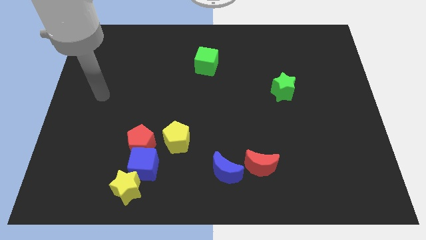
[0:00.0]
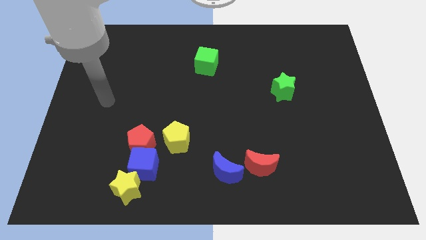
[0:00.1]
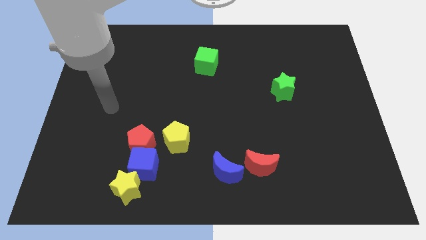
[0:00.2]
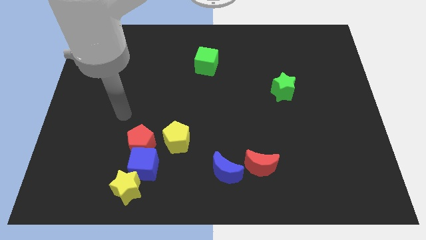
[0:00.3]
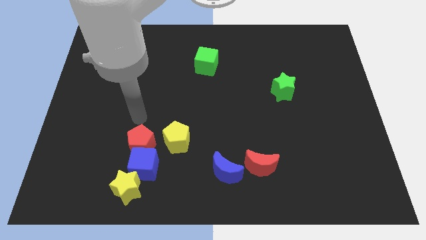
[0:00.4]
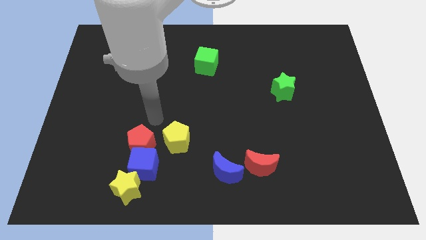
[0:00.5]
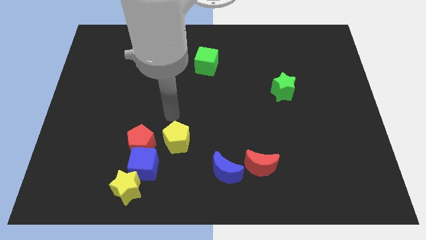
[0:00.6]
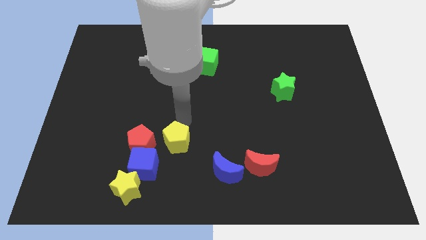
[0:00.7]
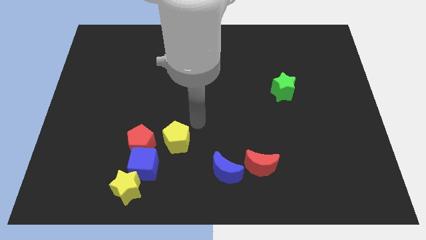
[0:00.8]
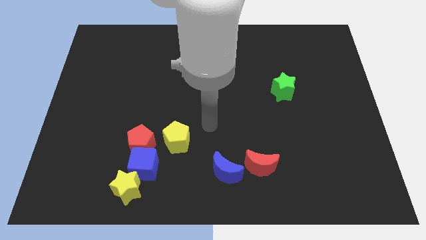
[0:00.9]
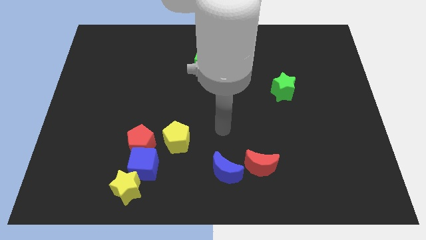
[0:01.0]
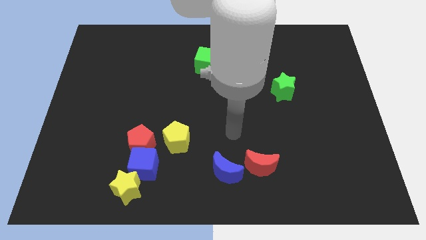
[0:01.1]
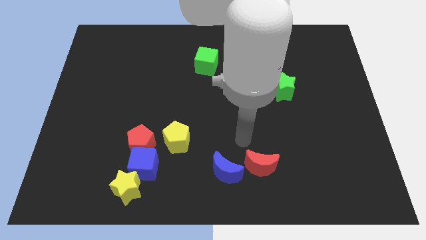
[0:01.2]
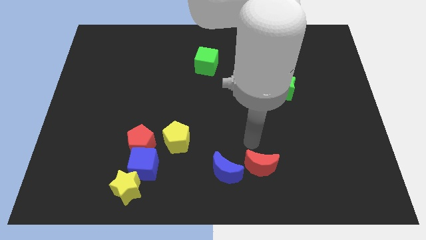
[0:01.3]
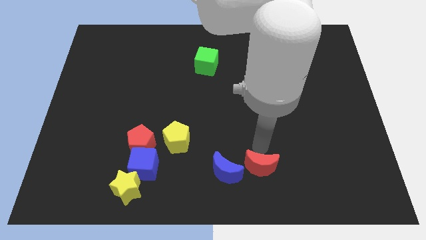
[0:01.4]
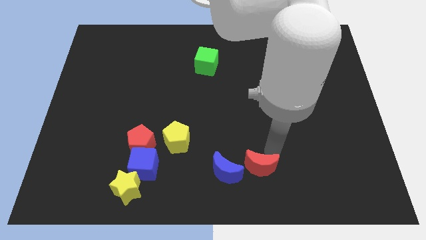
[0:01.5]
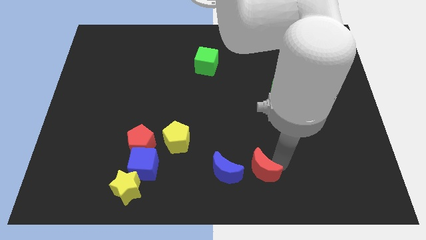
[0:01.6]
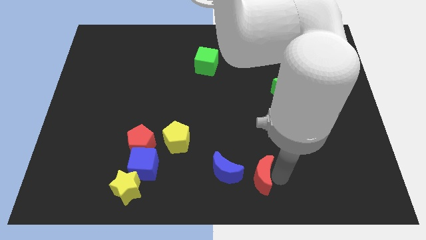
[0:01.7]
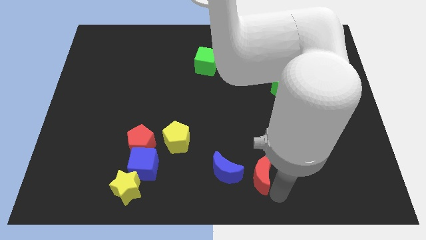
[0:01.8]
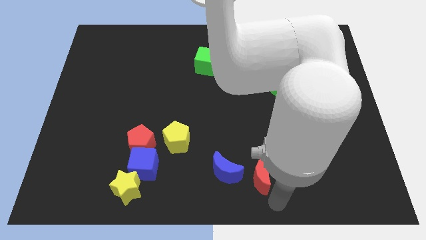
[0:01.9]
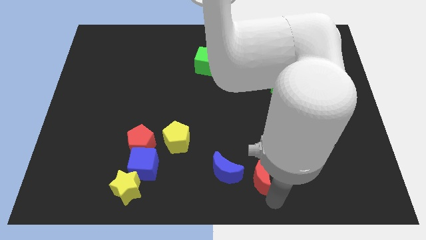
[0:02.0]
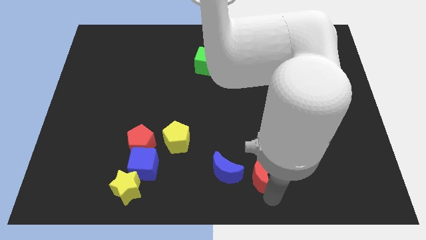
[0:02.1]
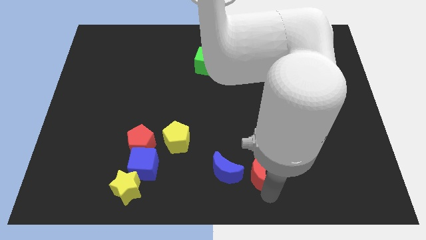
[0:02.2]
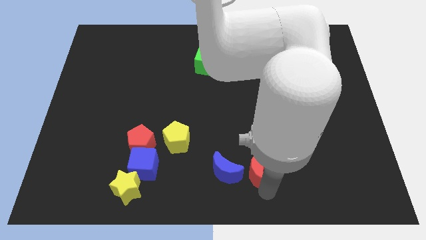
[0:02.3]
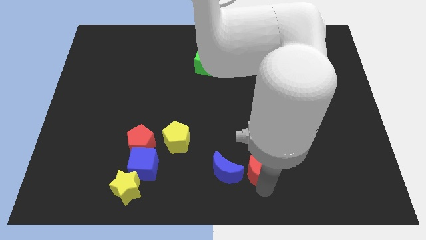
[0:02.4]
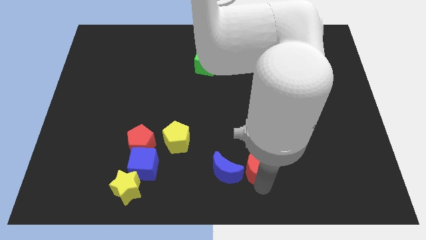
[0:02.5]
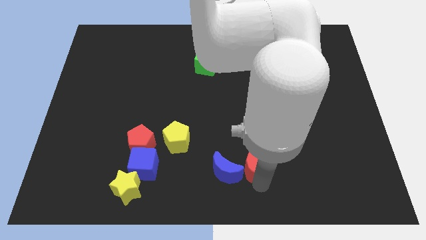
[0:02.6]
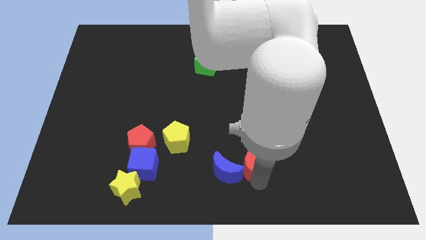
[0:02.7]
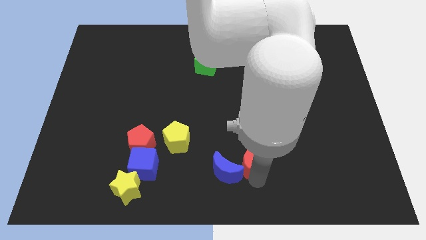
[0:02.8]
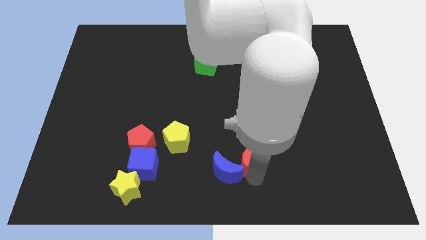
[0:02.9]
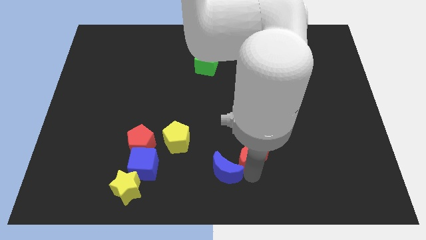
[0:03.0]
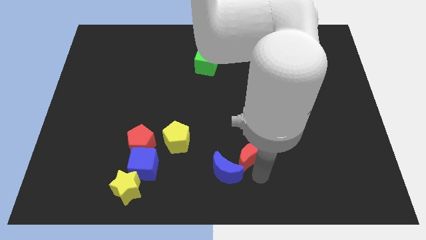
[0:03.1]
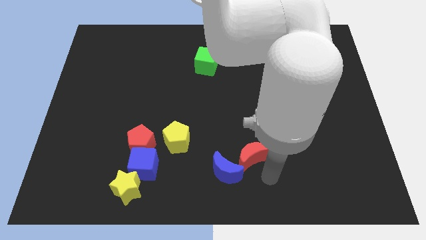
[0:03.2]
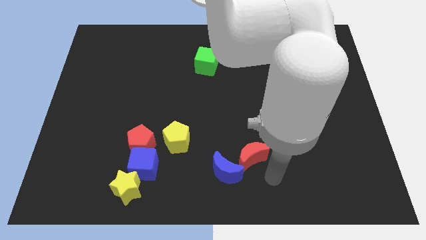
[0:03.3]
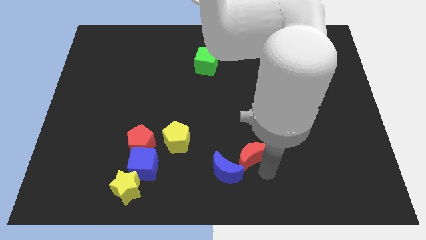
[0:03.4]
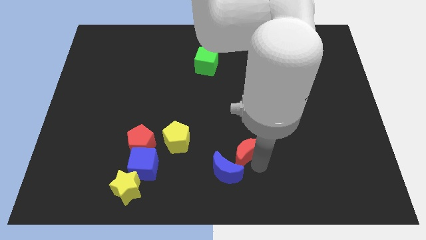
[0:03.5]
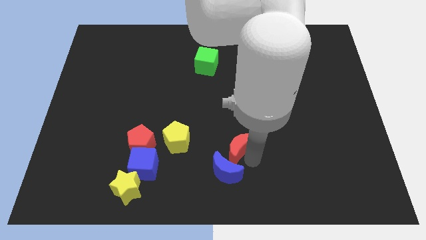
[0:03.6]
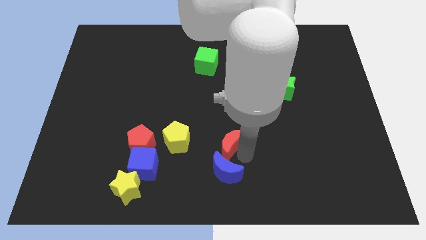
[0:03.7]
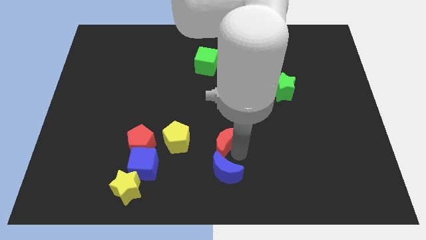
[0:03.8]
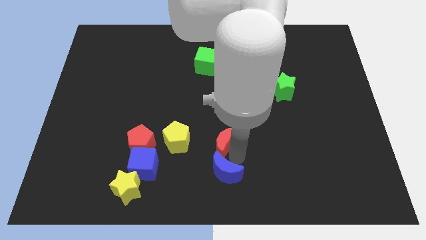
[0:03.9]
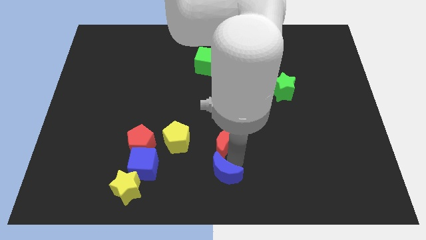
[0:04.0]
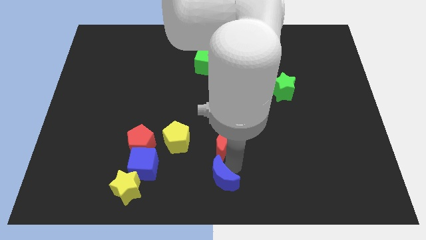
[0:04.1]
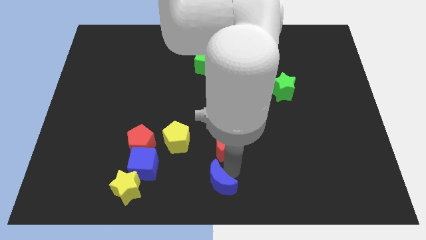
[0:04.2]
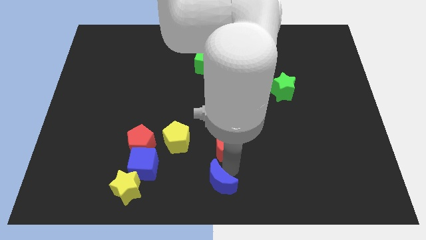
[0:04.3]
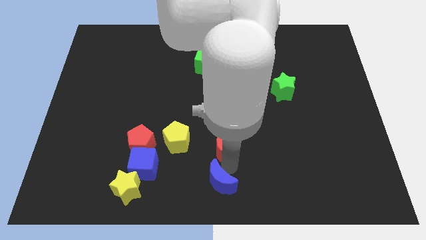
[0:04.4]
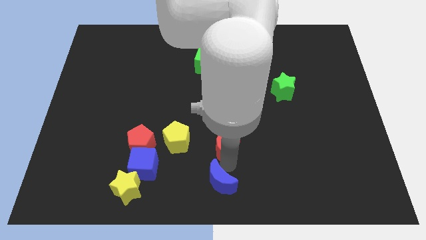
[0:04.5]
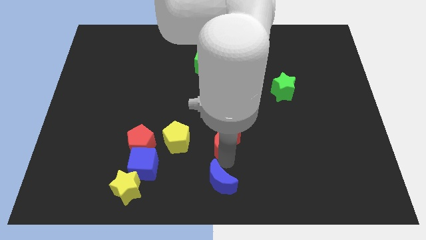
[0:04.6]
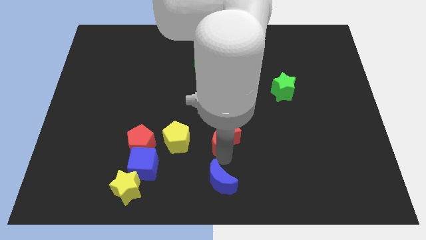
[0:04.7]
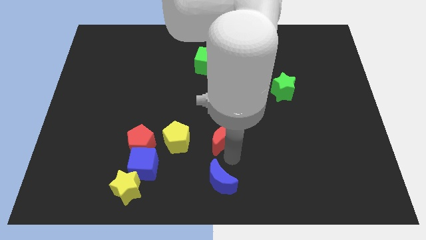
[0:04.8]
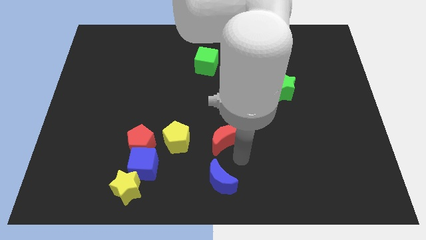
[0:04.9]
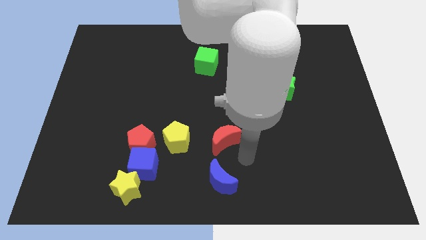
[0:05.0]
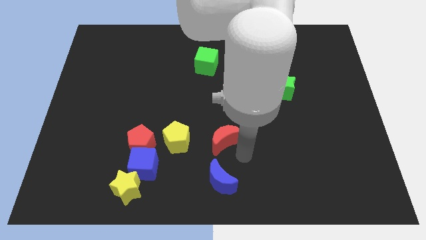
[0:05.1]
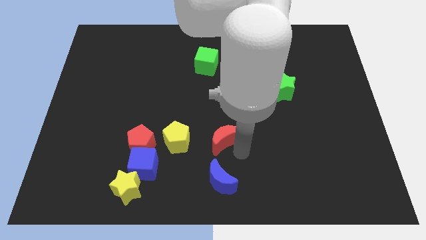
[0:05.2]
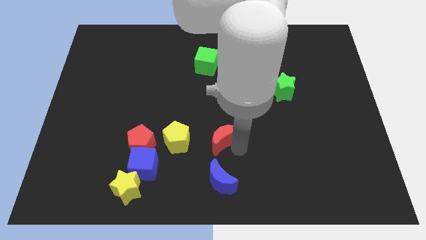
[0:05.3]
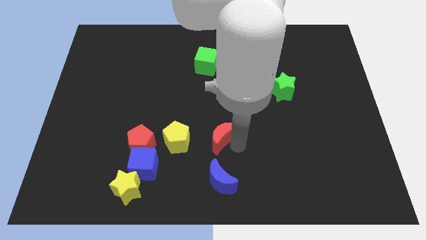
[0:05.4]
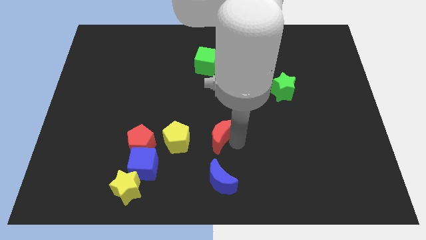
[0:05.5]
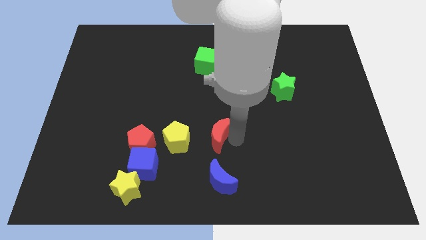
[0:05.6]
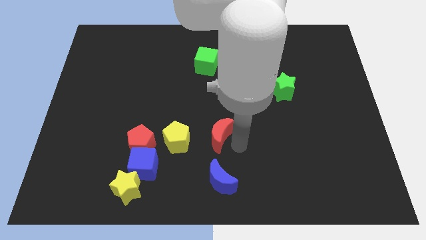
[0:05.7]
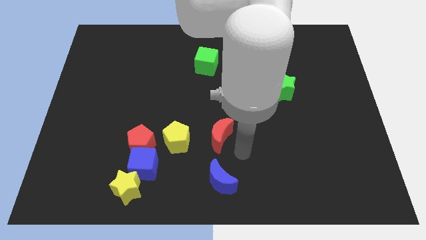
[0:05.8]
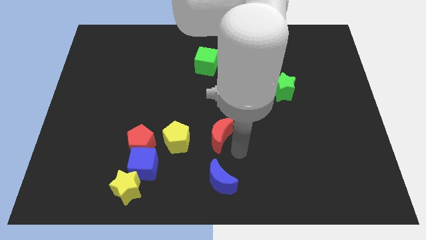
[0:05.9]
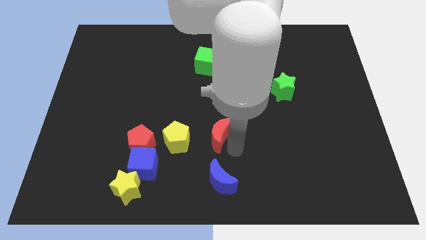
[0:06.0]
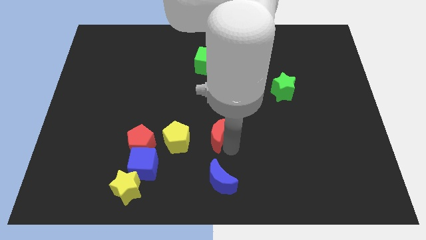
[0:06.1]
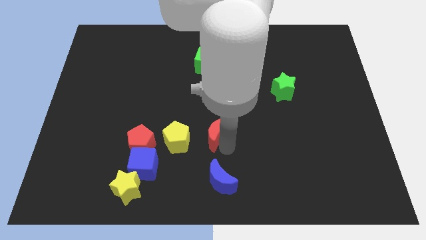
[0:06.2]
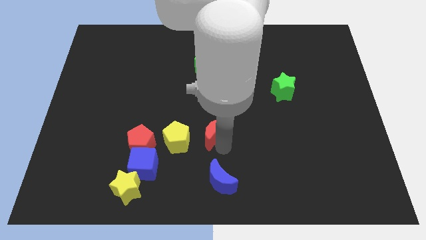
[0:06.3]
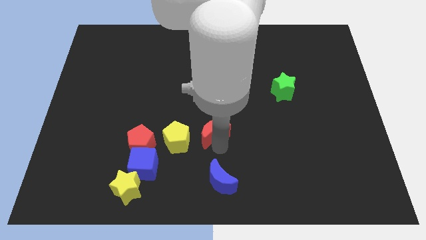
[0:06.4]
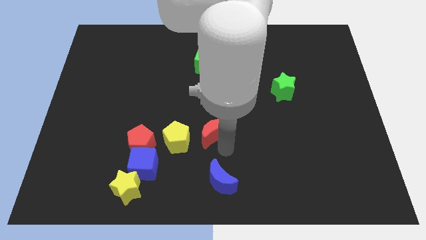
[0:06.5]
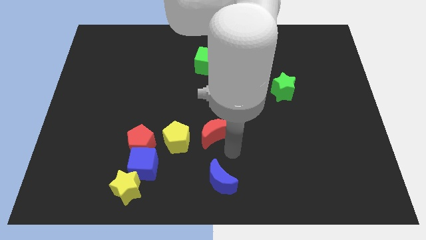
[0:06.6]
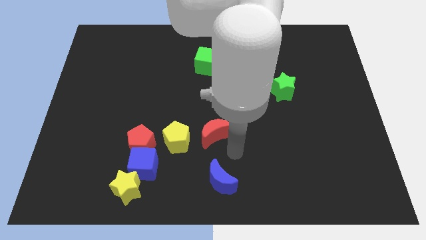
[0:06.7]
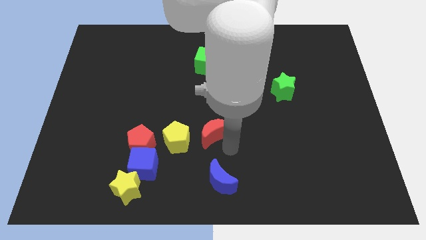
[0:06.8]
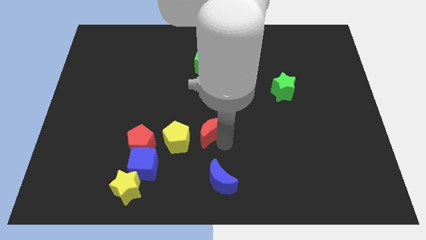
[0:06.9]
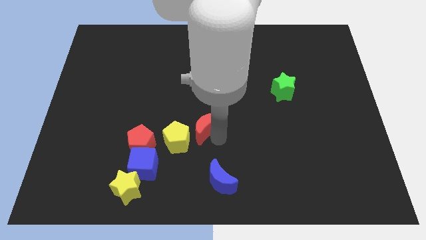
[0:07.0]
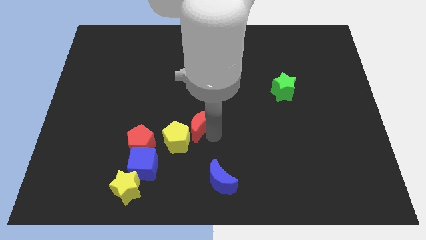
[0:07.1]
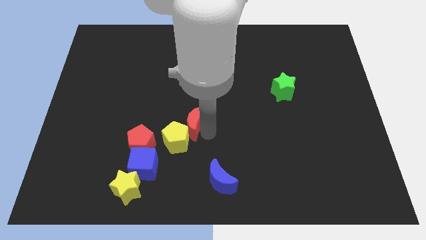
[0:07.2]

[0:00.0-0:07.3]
move the red moon above the yellow pentagon

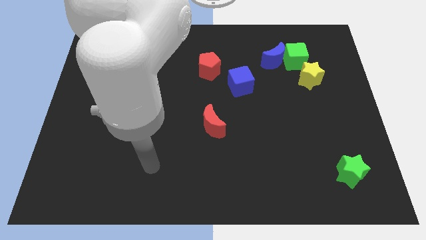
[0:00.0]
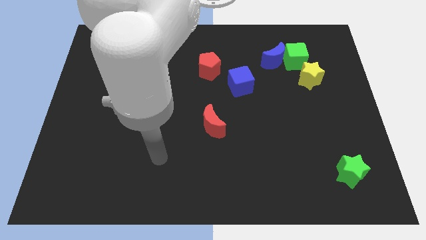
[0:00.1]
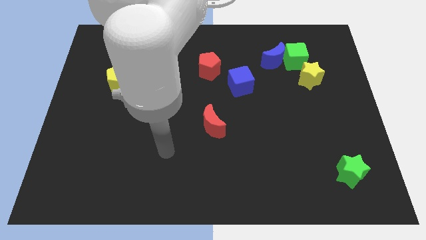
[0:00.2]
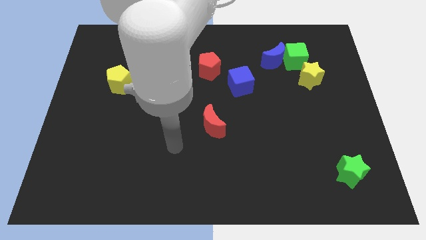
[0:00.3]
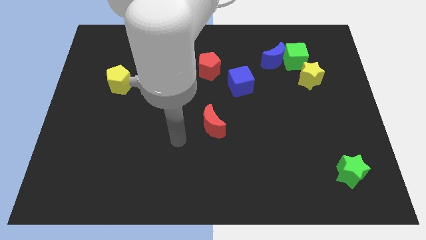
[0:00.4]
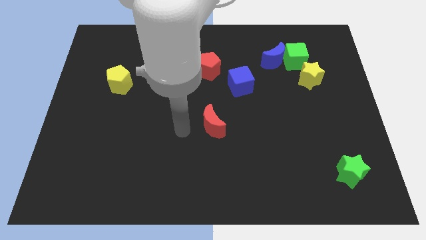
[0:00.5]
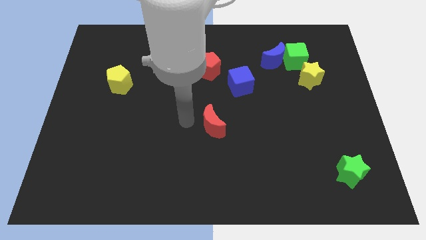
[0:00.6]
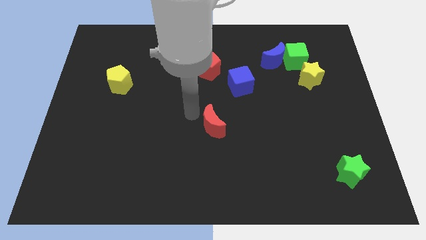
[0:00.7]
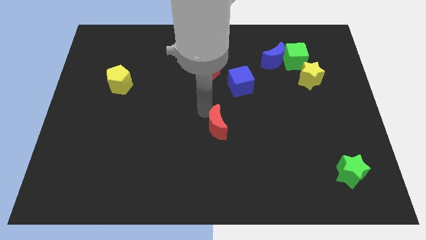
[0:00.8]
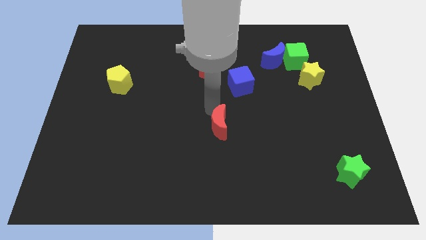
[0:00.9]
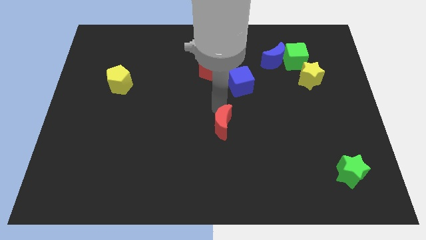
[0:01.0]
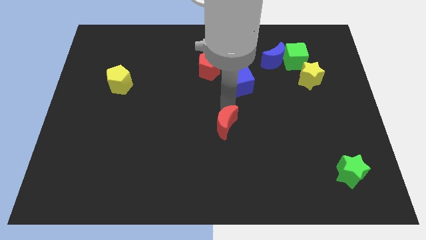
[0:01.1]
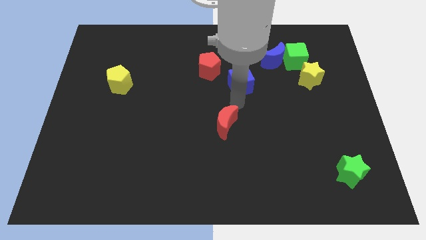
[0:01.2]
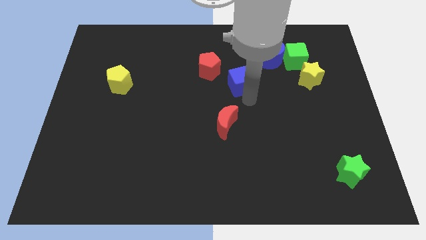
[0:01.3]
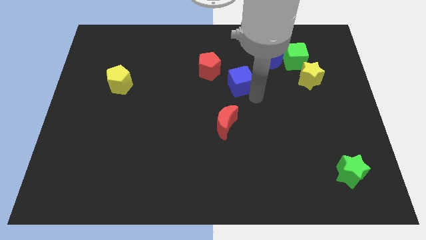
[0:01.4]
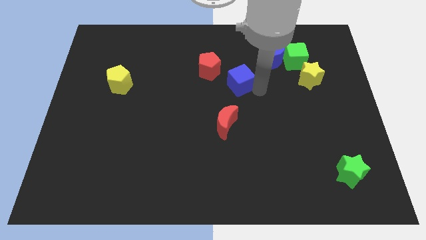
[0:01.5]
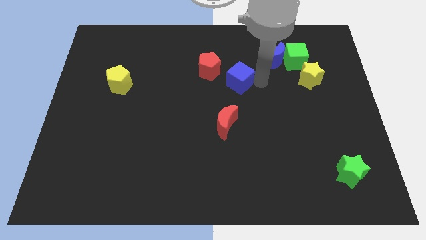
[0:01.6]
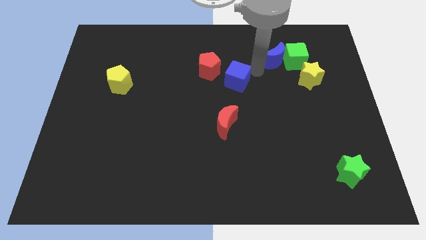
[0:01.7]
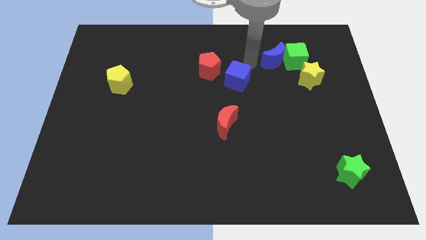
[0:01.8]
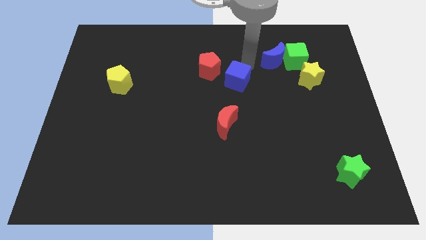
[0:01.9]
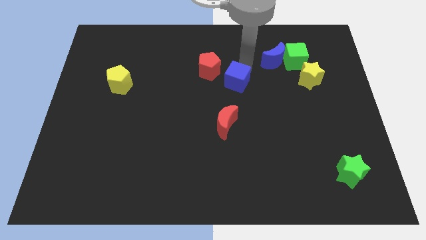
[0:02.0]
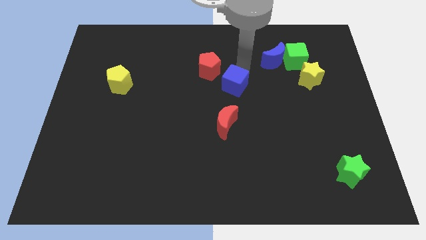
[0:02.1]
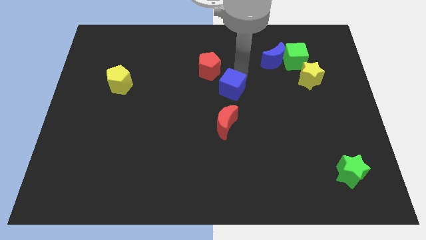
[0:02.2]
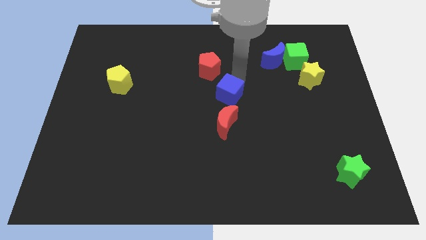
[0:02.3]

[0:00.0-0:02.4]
put the blue cube to the bottom of the red pentagon
